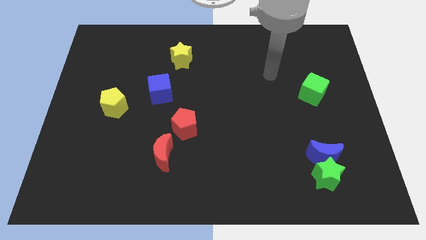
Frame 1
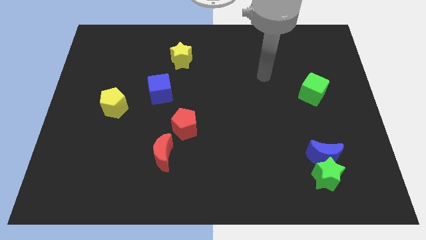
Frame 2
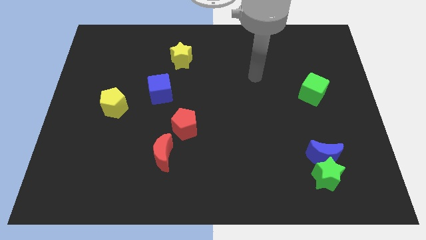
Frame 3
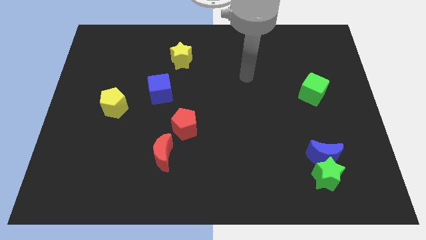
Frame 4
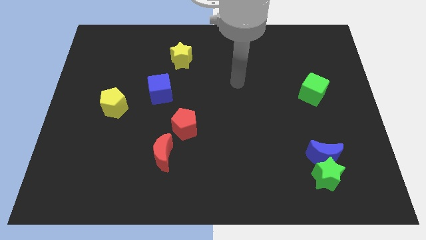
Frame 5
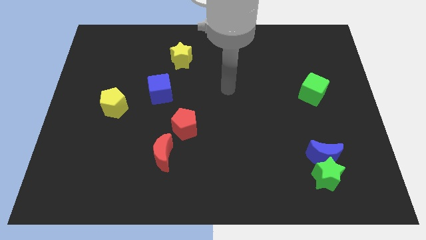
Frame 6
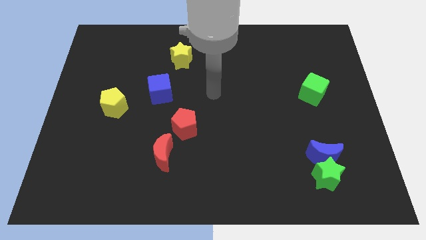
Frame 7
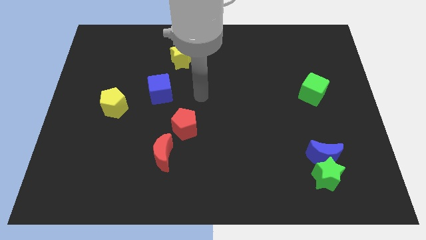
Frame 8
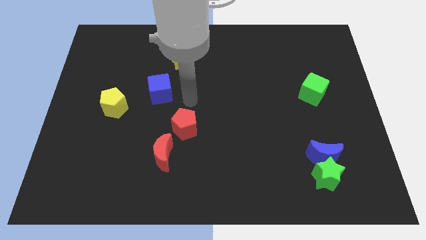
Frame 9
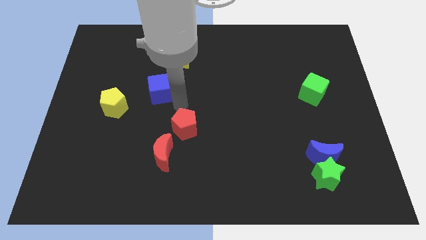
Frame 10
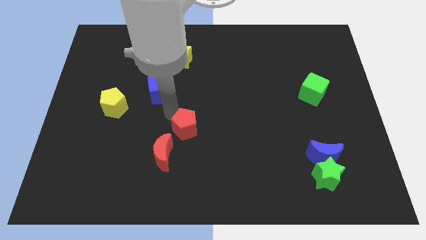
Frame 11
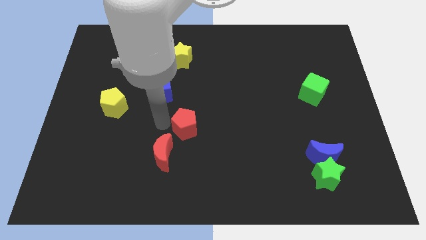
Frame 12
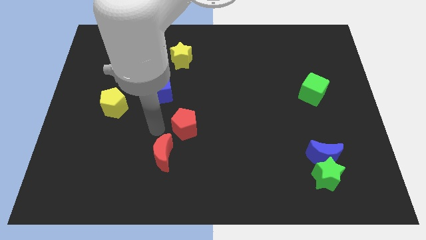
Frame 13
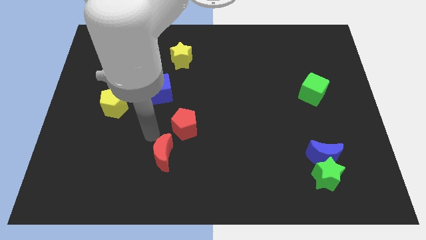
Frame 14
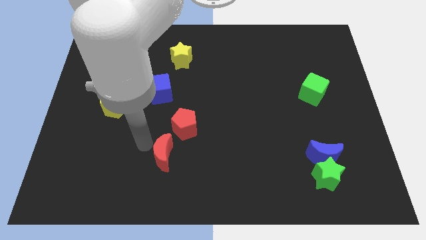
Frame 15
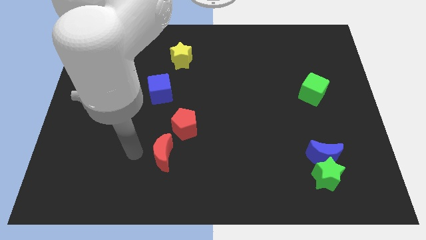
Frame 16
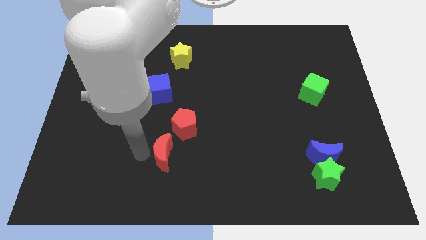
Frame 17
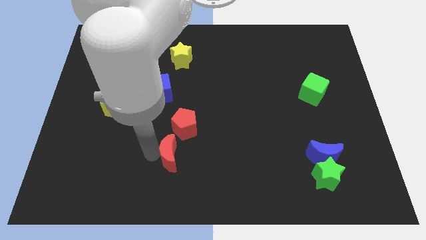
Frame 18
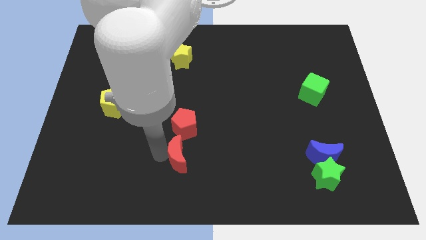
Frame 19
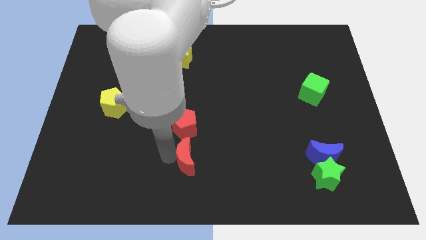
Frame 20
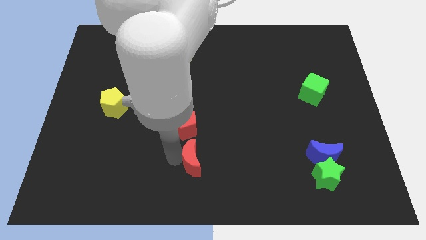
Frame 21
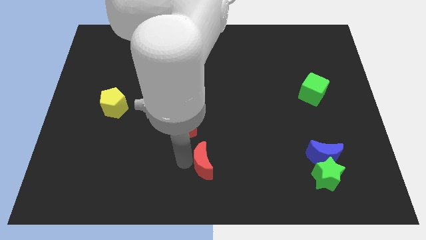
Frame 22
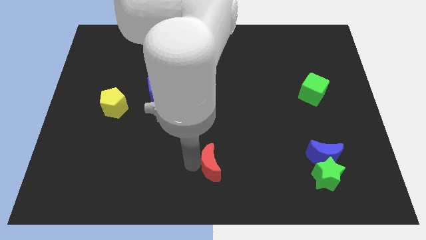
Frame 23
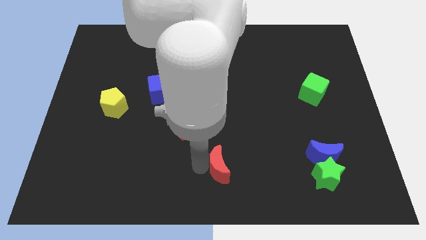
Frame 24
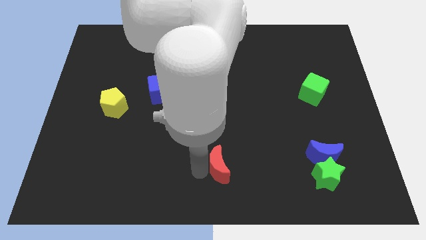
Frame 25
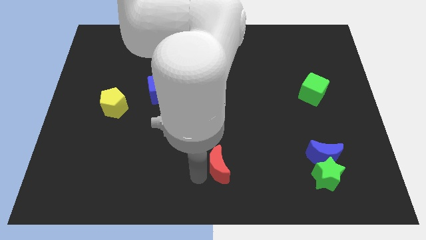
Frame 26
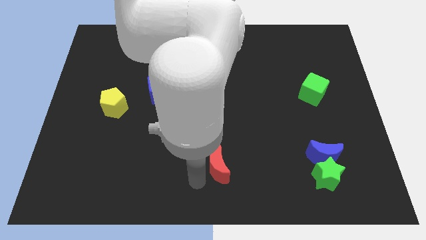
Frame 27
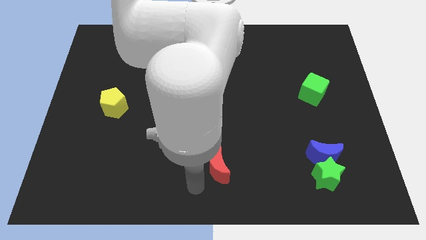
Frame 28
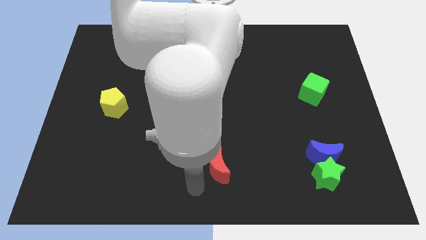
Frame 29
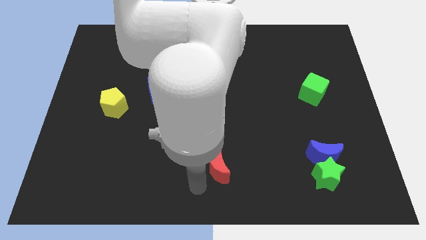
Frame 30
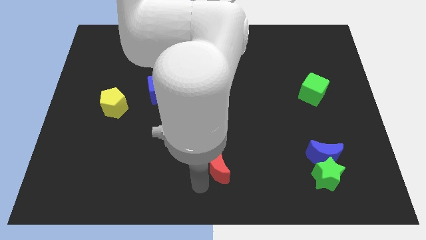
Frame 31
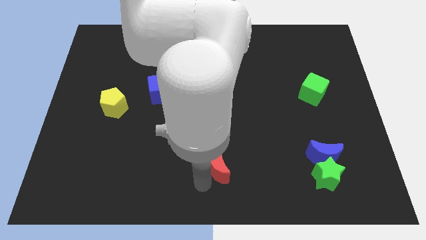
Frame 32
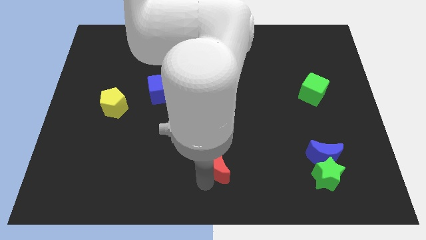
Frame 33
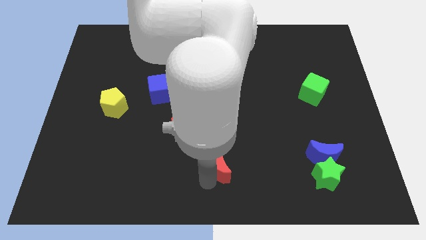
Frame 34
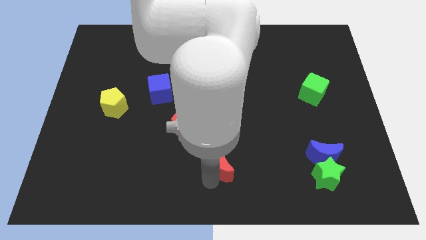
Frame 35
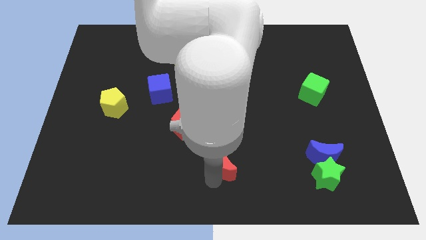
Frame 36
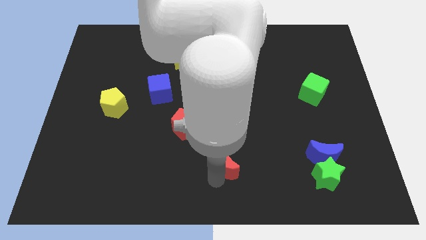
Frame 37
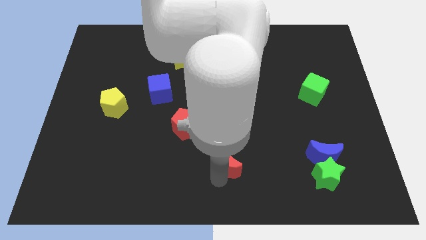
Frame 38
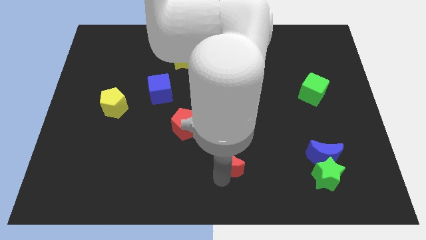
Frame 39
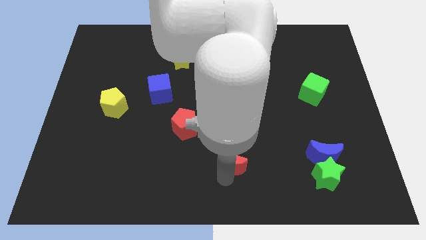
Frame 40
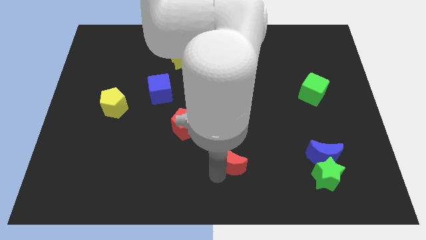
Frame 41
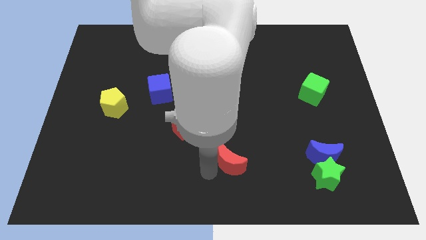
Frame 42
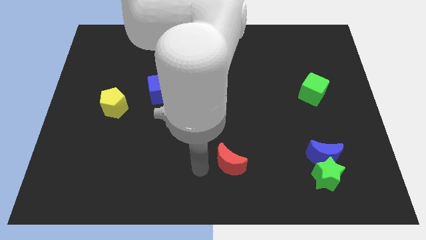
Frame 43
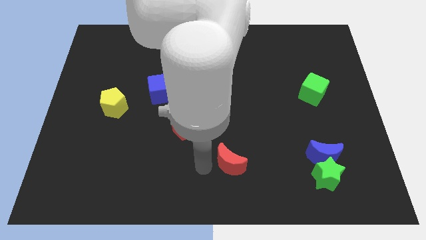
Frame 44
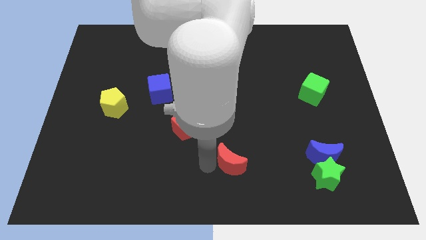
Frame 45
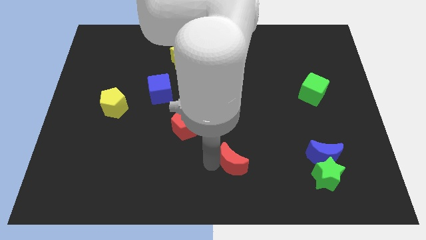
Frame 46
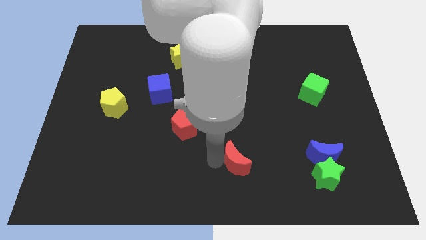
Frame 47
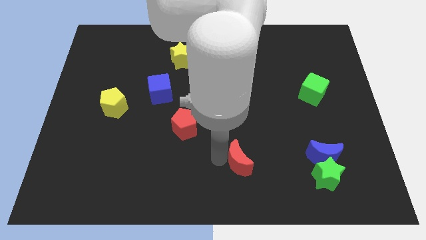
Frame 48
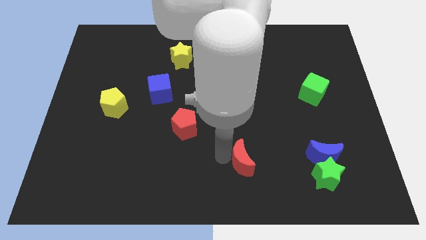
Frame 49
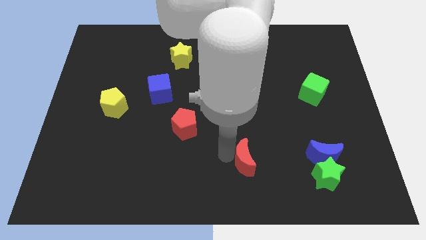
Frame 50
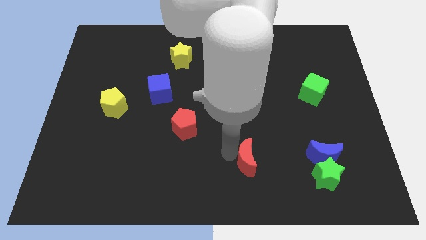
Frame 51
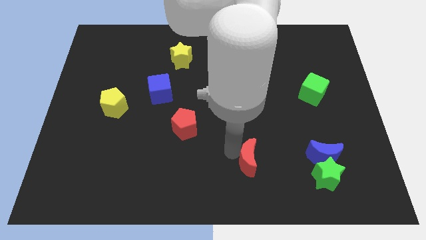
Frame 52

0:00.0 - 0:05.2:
slide the red moon to the left side of the blue moon

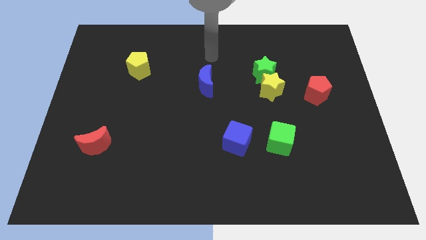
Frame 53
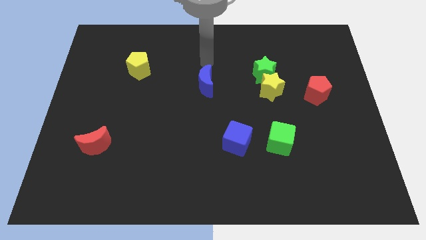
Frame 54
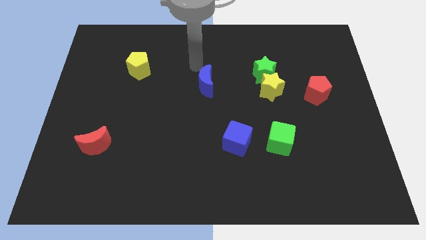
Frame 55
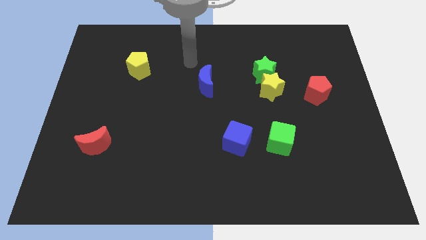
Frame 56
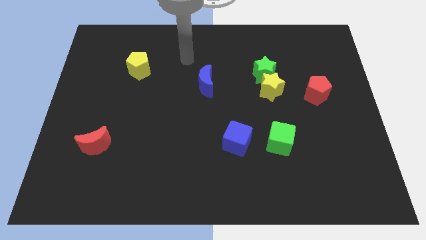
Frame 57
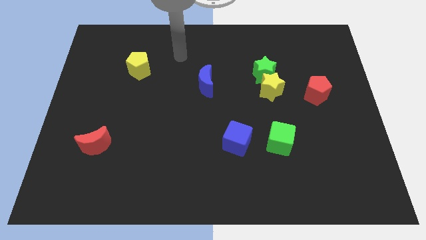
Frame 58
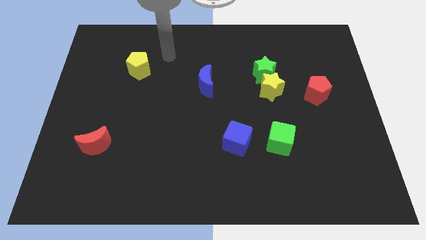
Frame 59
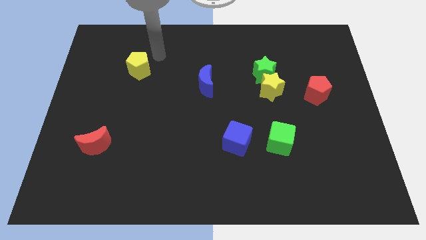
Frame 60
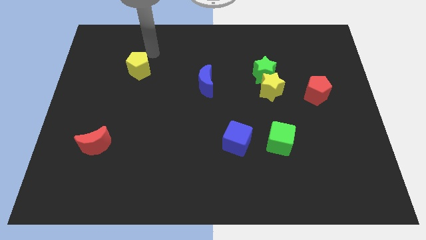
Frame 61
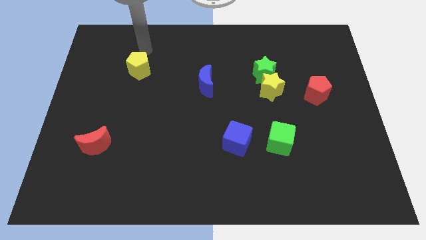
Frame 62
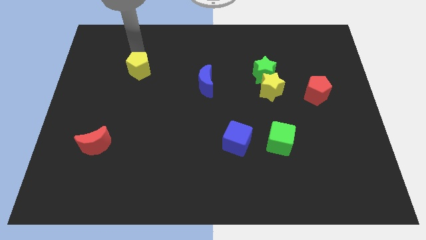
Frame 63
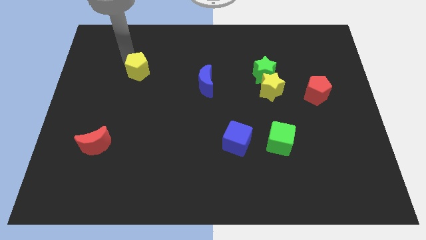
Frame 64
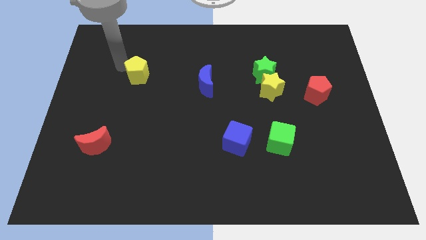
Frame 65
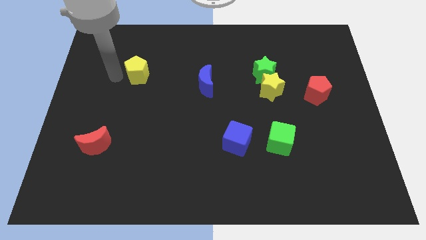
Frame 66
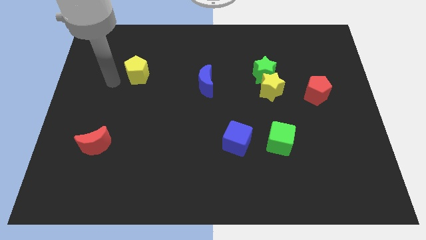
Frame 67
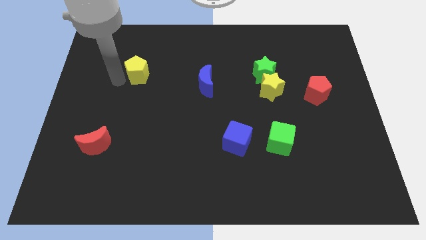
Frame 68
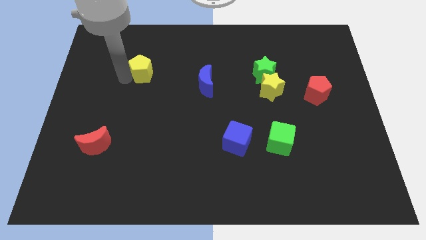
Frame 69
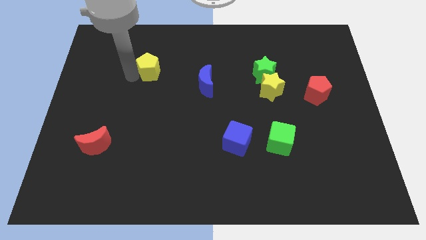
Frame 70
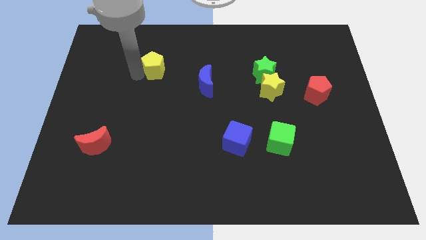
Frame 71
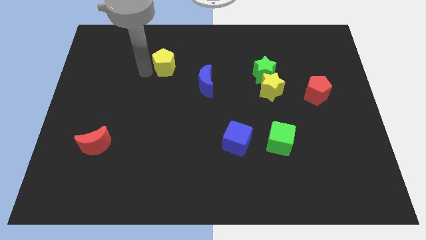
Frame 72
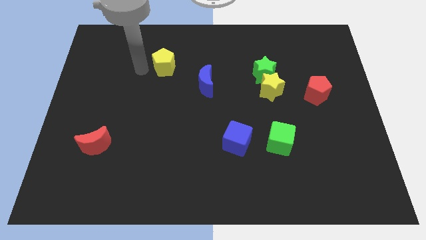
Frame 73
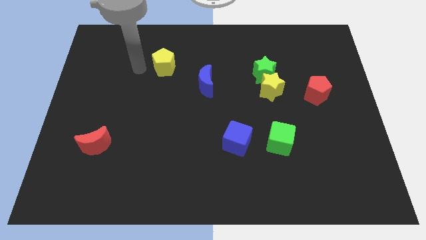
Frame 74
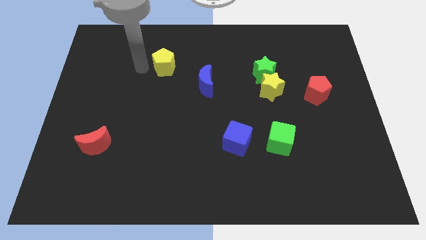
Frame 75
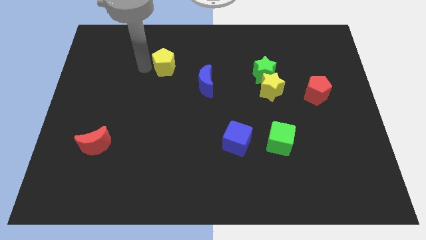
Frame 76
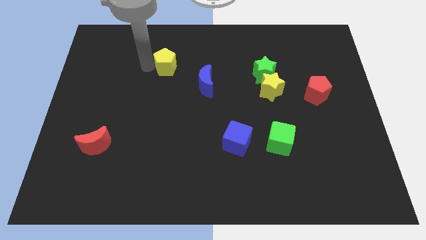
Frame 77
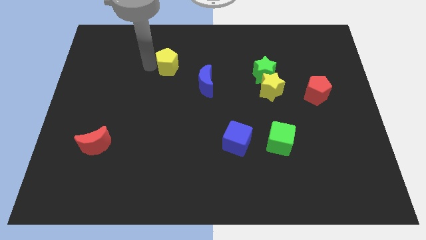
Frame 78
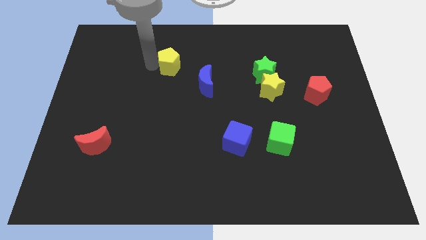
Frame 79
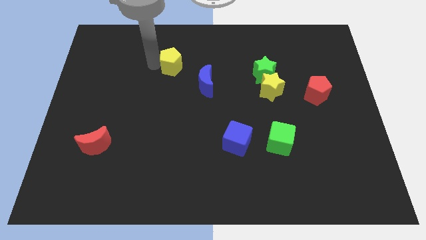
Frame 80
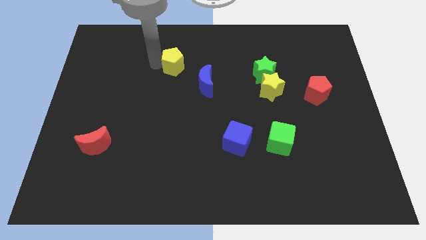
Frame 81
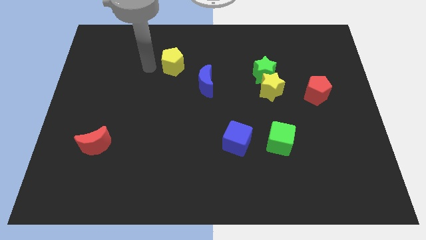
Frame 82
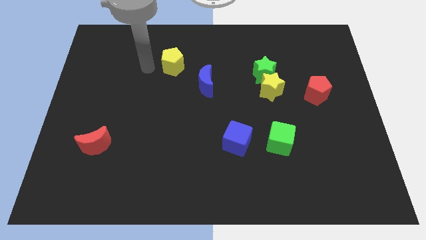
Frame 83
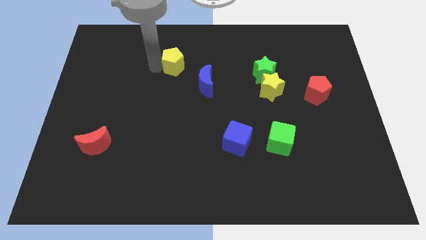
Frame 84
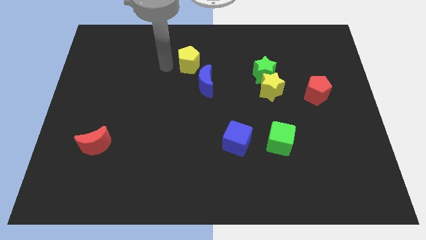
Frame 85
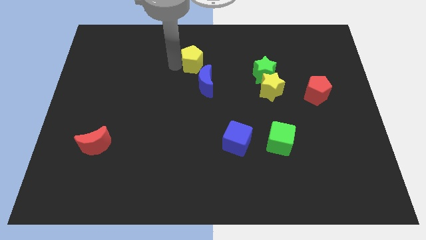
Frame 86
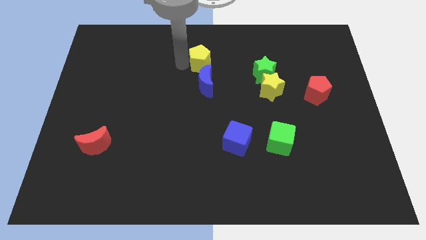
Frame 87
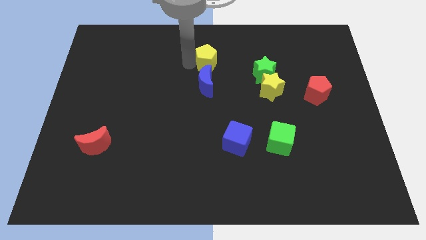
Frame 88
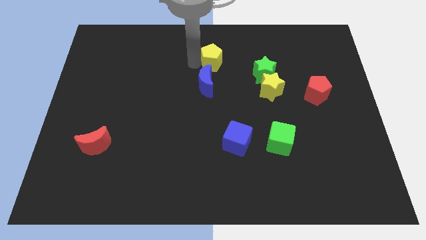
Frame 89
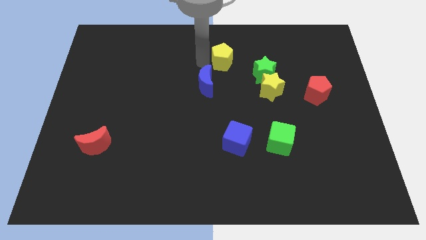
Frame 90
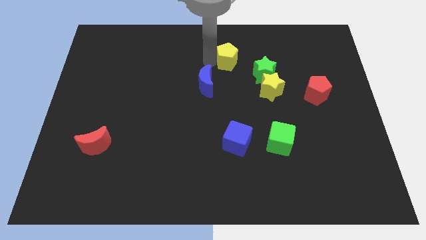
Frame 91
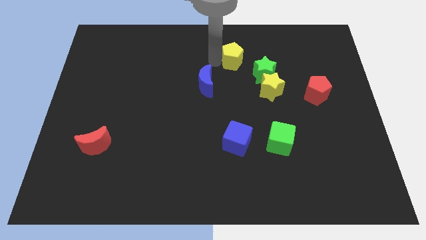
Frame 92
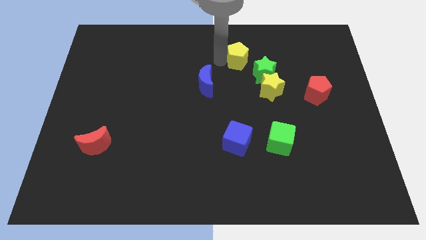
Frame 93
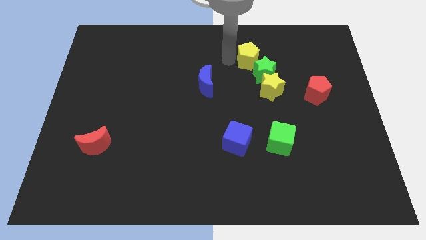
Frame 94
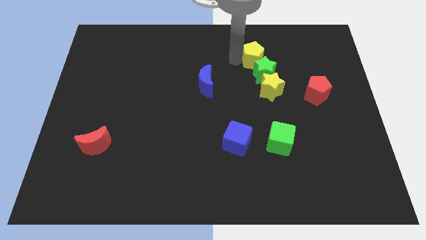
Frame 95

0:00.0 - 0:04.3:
move the yellow pentagon to the top of the yellow star
